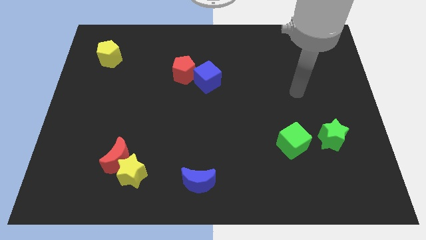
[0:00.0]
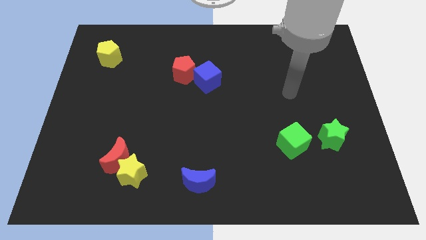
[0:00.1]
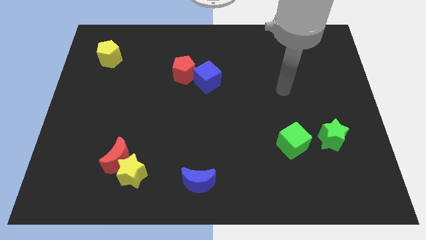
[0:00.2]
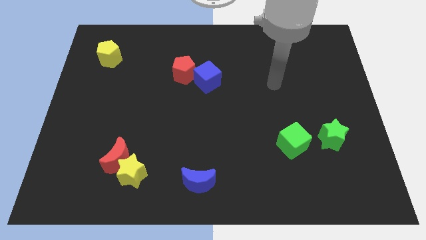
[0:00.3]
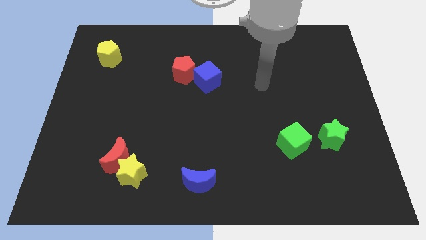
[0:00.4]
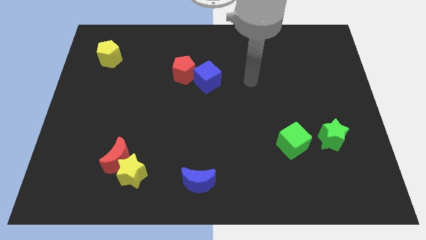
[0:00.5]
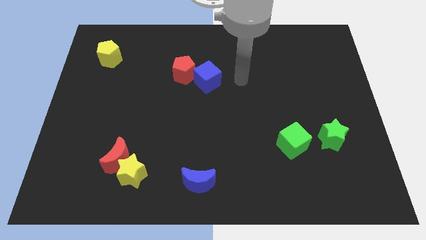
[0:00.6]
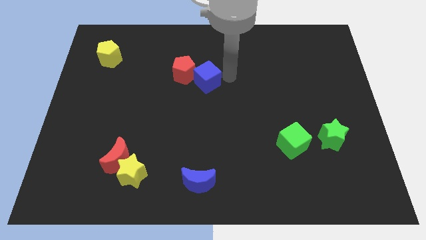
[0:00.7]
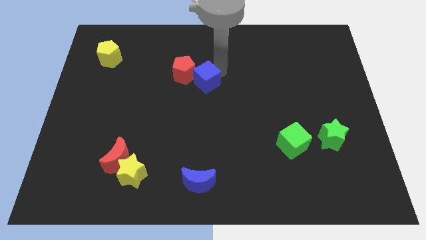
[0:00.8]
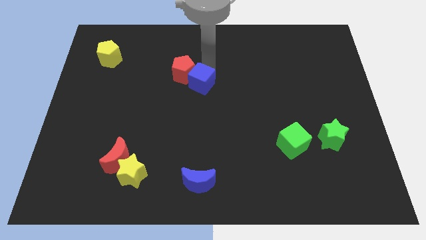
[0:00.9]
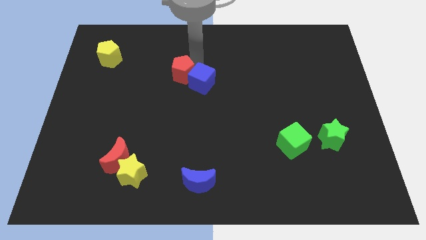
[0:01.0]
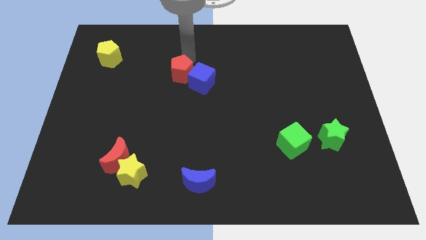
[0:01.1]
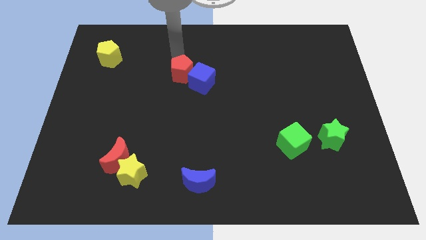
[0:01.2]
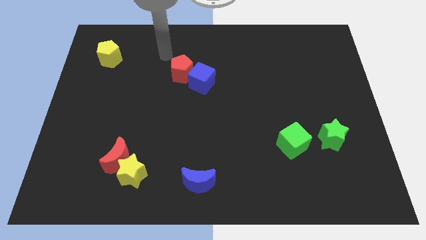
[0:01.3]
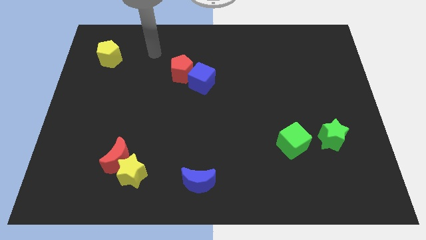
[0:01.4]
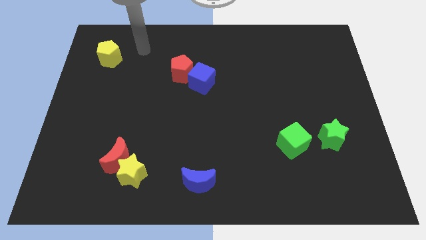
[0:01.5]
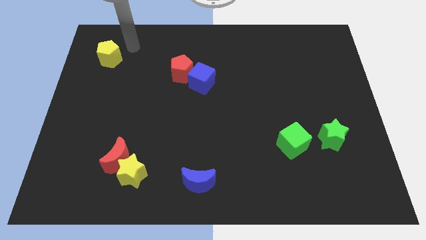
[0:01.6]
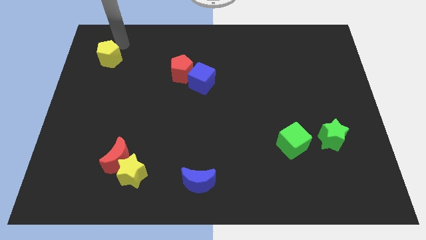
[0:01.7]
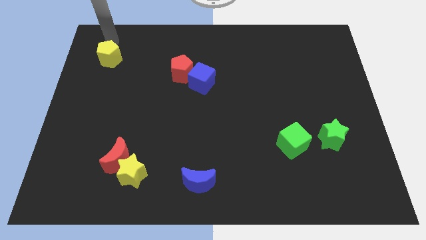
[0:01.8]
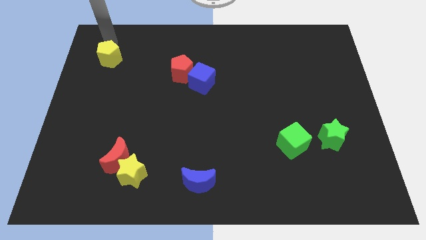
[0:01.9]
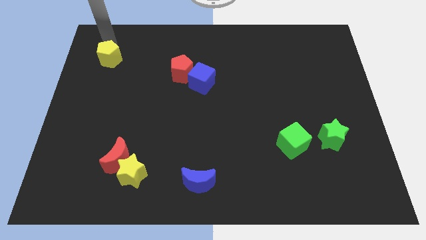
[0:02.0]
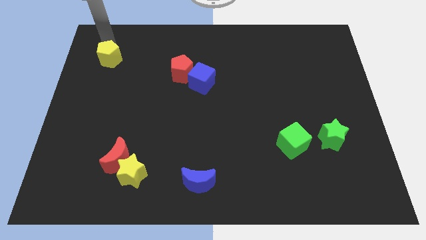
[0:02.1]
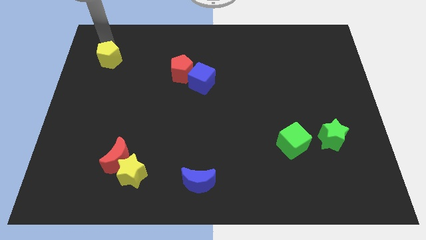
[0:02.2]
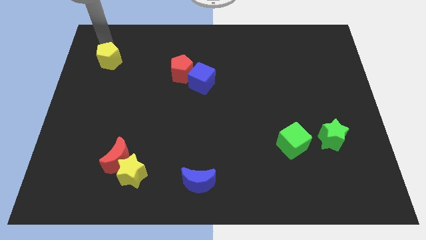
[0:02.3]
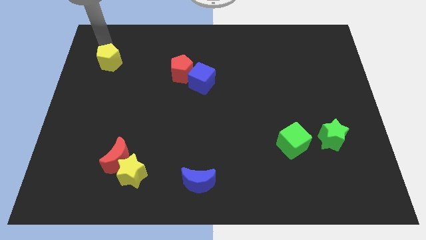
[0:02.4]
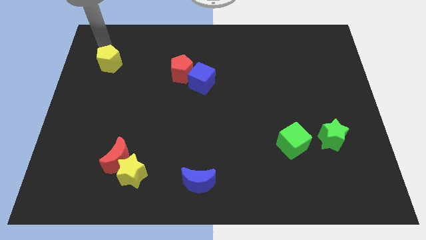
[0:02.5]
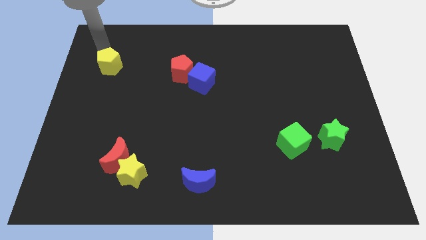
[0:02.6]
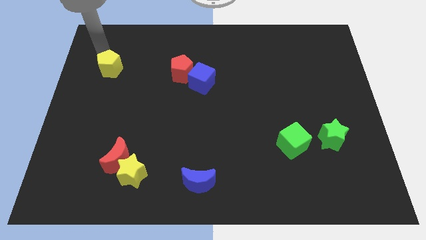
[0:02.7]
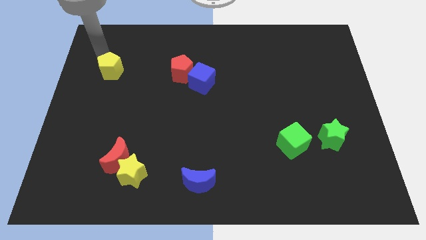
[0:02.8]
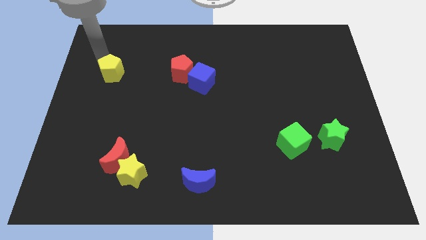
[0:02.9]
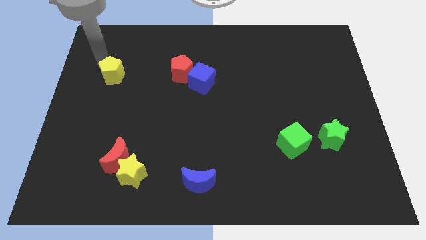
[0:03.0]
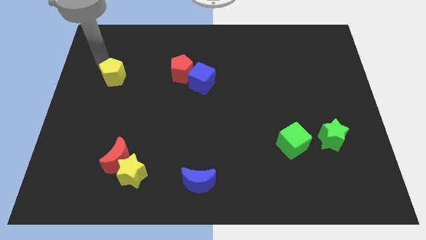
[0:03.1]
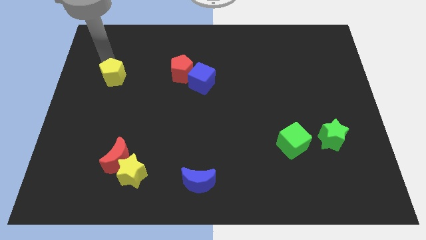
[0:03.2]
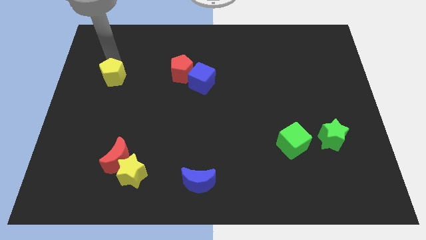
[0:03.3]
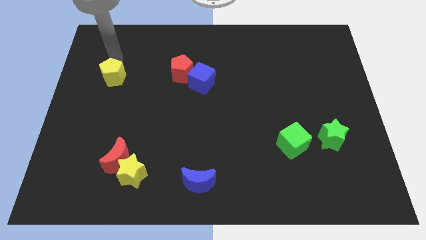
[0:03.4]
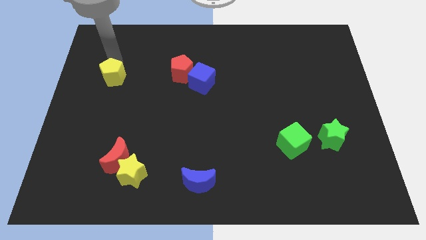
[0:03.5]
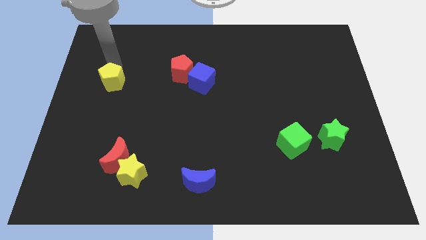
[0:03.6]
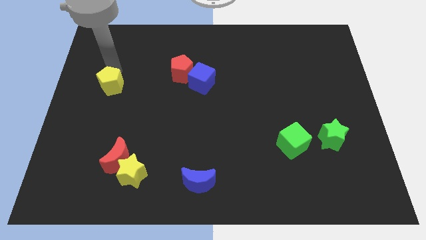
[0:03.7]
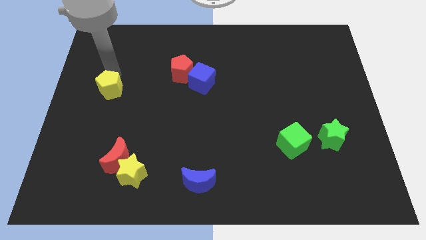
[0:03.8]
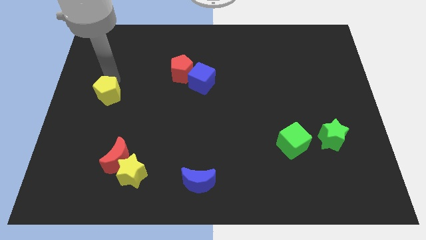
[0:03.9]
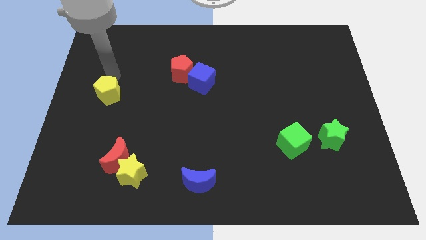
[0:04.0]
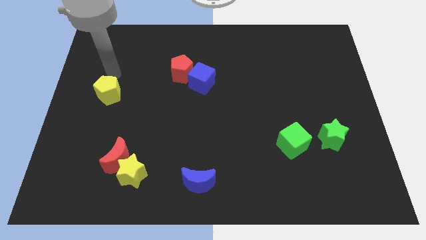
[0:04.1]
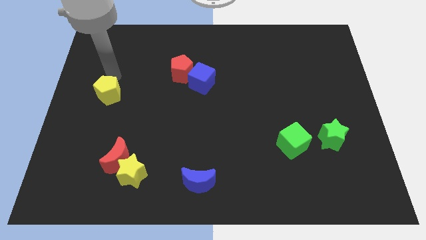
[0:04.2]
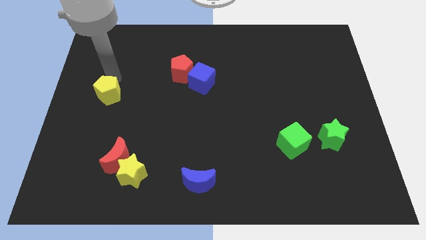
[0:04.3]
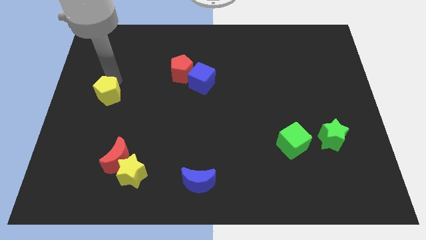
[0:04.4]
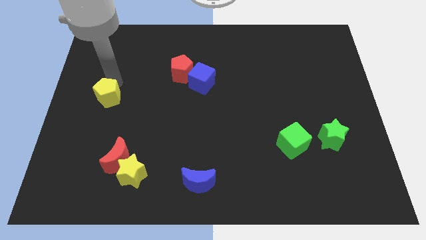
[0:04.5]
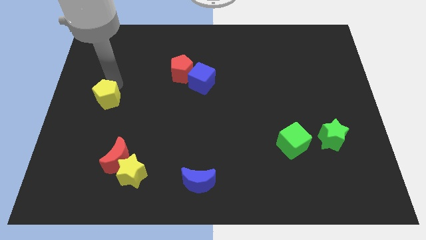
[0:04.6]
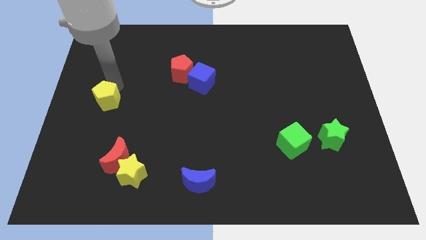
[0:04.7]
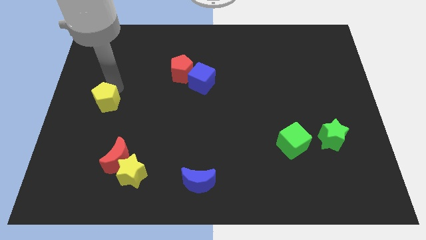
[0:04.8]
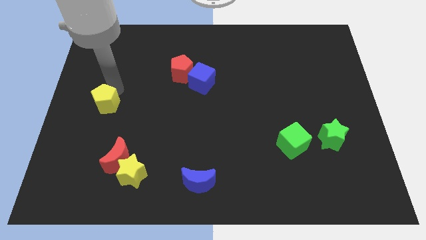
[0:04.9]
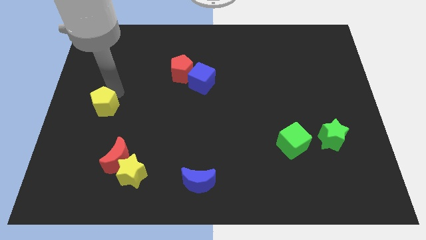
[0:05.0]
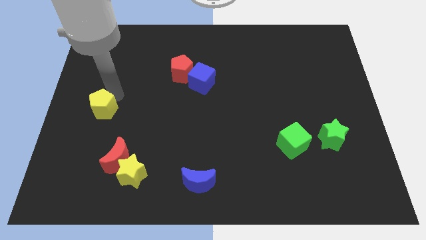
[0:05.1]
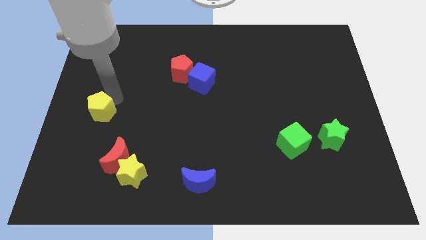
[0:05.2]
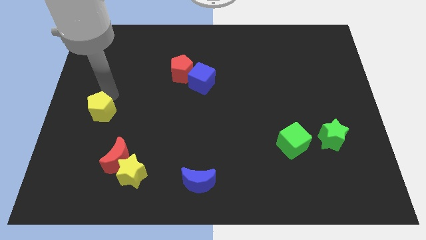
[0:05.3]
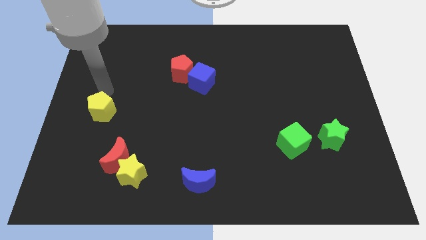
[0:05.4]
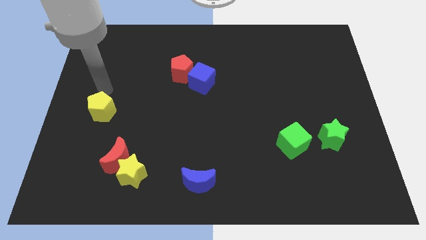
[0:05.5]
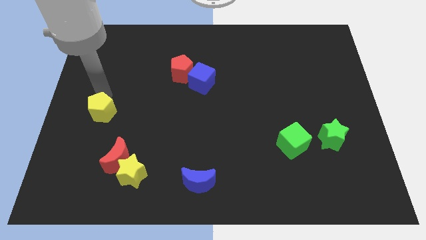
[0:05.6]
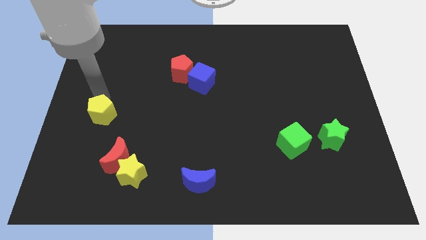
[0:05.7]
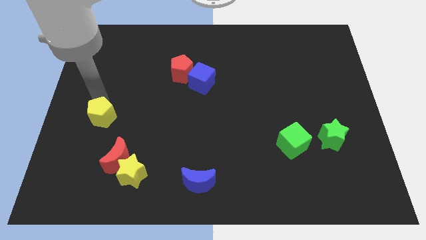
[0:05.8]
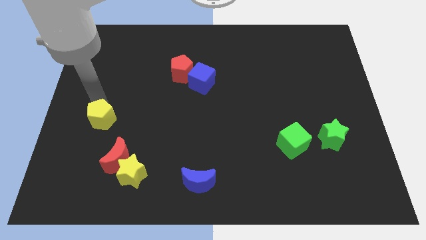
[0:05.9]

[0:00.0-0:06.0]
move the yellow pentagon to the top left of the red moon

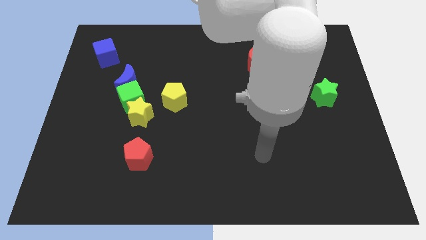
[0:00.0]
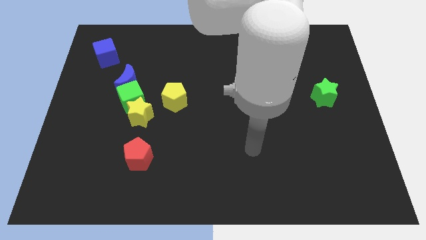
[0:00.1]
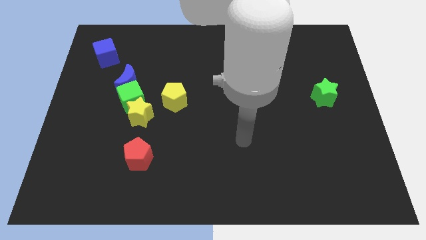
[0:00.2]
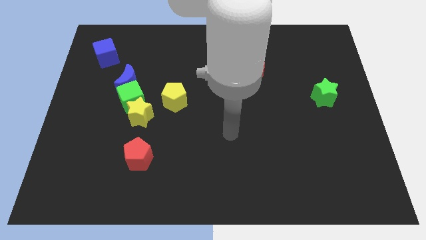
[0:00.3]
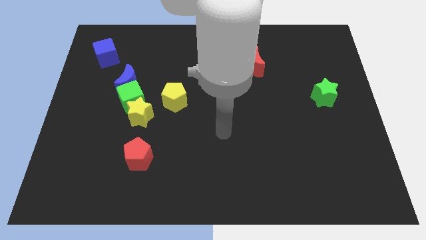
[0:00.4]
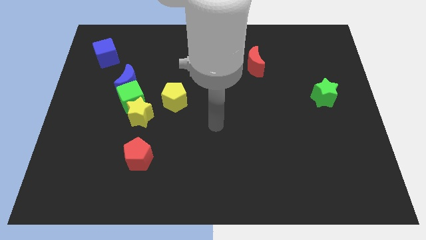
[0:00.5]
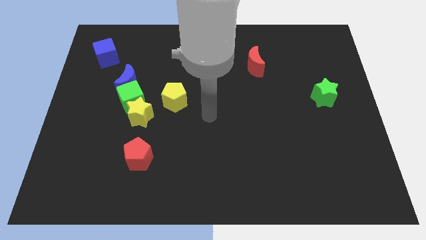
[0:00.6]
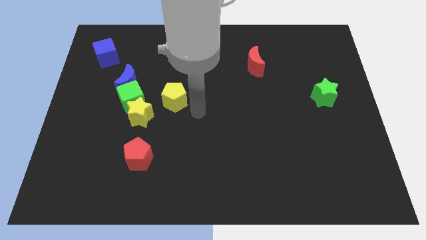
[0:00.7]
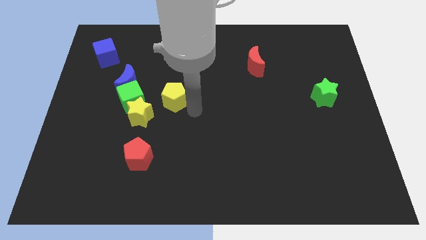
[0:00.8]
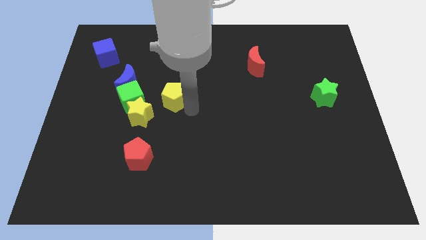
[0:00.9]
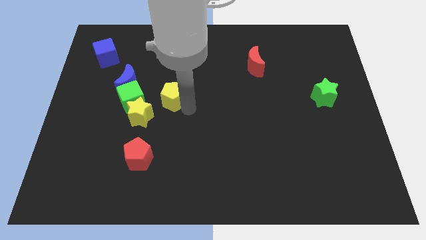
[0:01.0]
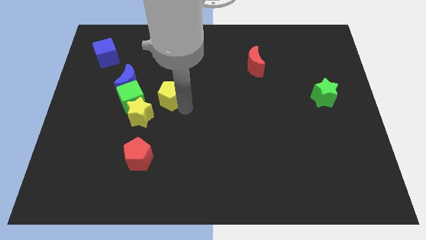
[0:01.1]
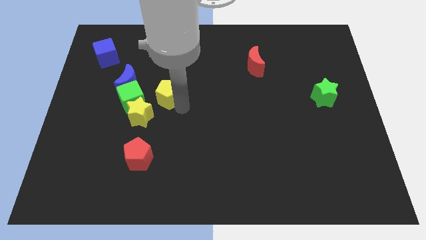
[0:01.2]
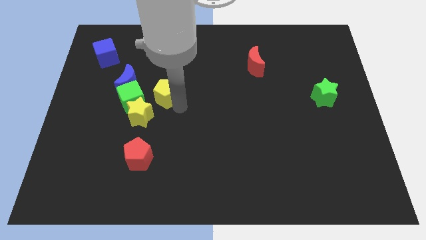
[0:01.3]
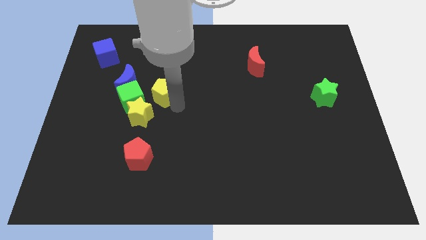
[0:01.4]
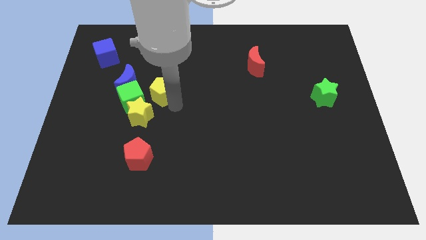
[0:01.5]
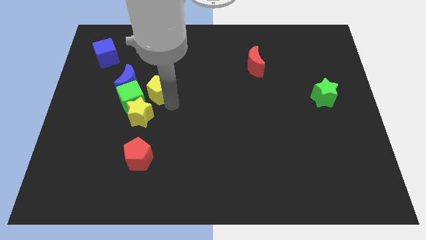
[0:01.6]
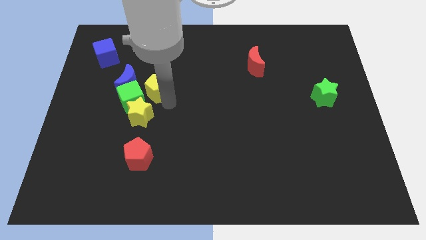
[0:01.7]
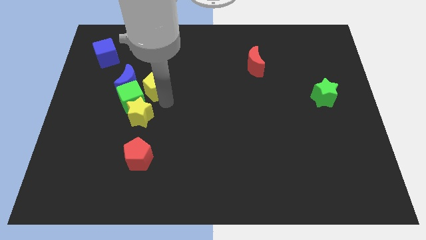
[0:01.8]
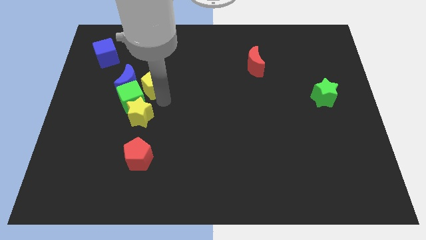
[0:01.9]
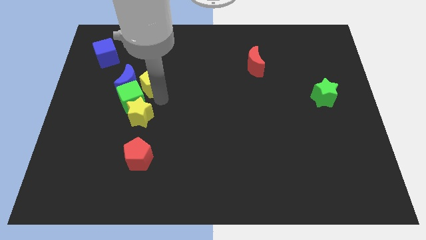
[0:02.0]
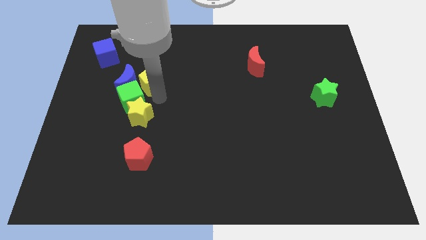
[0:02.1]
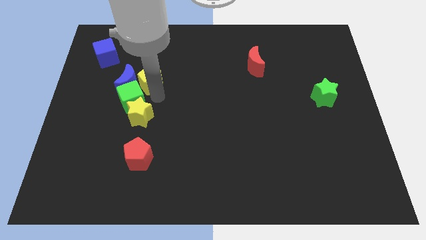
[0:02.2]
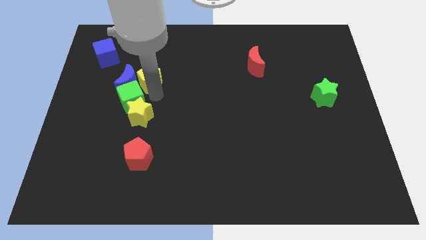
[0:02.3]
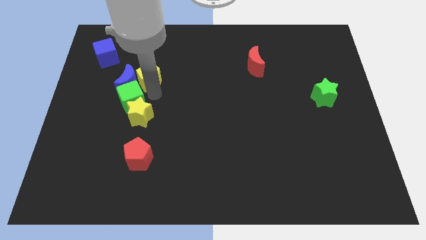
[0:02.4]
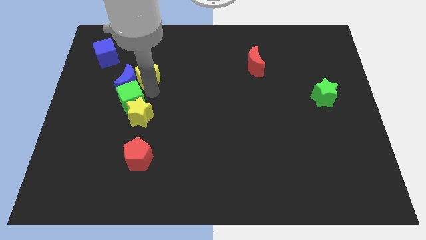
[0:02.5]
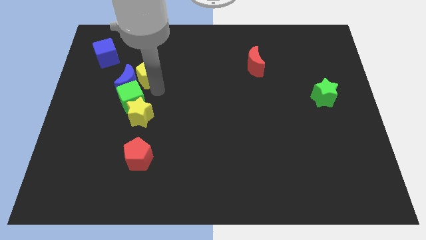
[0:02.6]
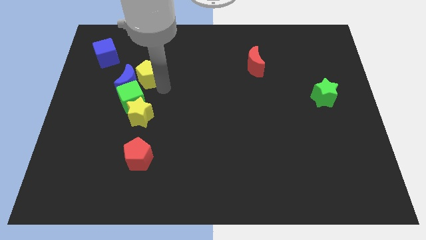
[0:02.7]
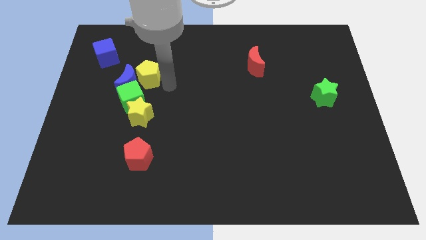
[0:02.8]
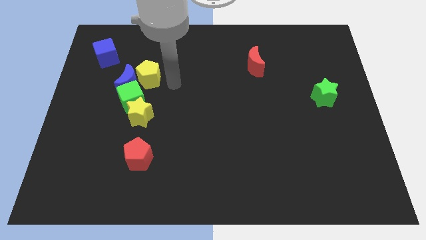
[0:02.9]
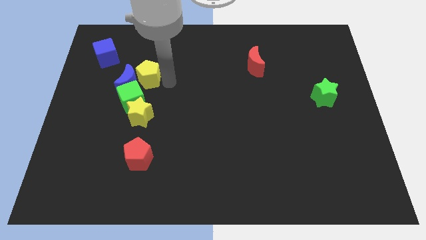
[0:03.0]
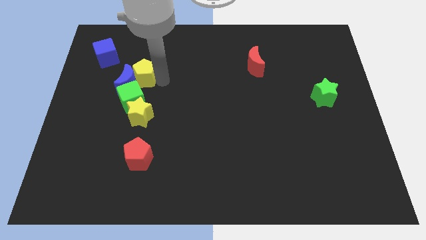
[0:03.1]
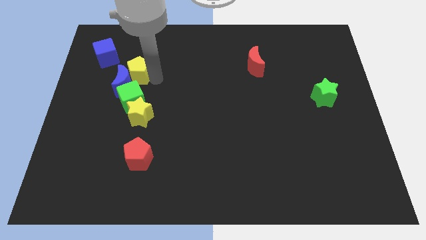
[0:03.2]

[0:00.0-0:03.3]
slide the yellow pentagon diagonally down and to the right of the blue cube
